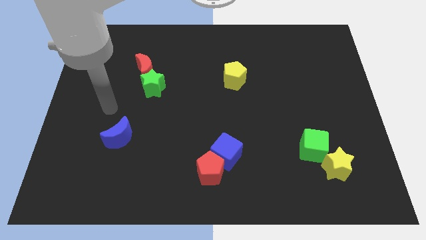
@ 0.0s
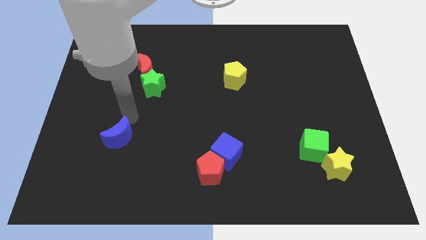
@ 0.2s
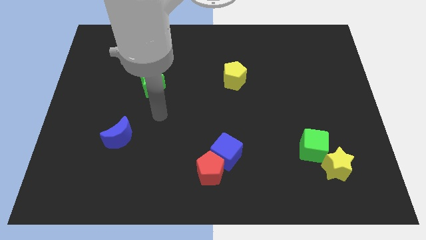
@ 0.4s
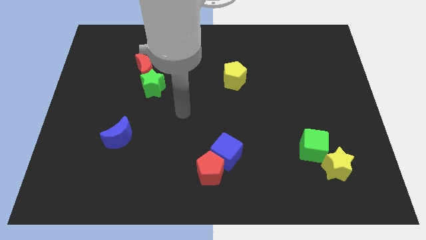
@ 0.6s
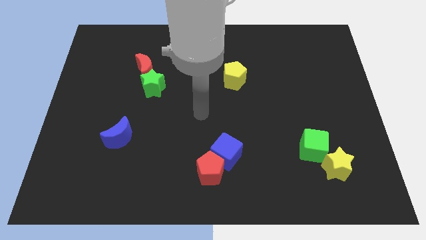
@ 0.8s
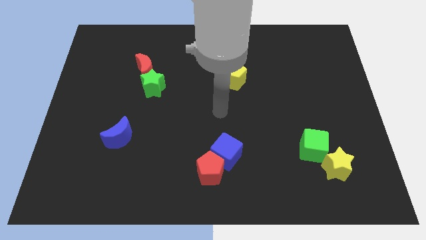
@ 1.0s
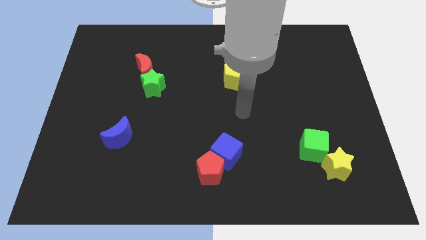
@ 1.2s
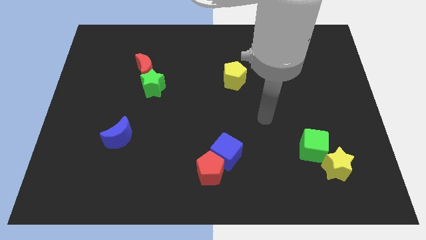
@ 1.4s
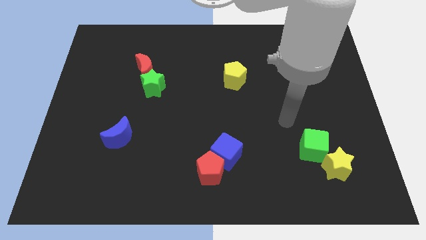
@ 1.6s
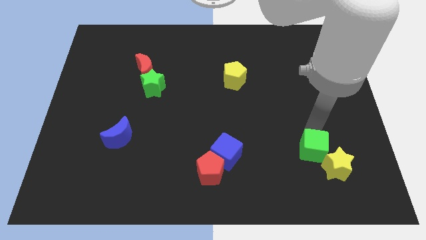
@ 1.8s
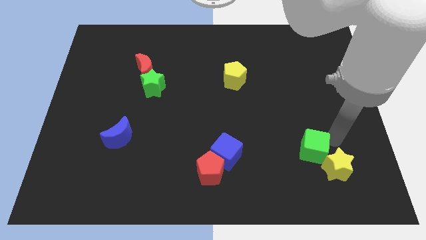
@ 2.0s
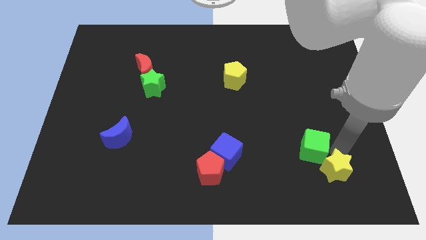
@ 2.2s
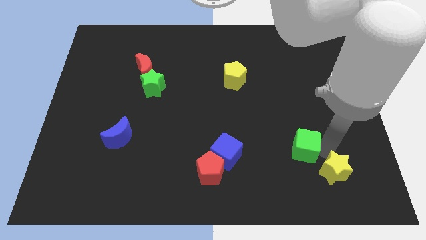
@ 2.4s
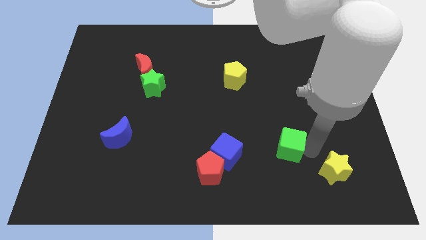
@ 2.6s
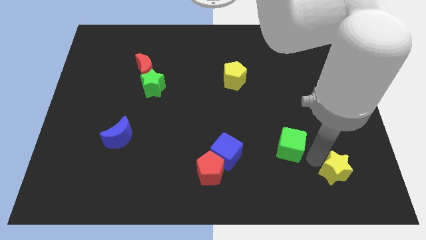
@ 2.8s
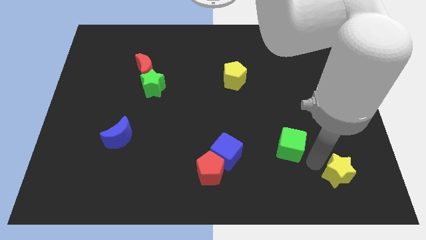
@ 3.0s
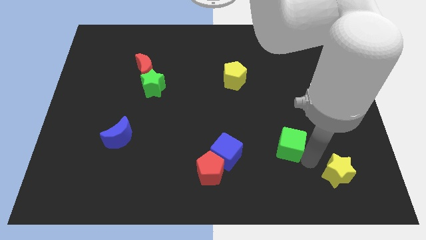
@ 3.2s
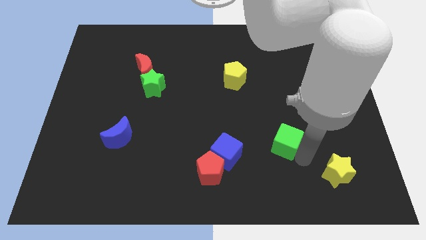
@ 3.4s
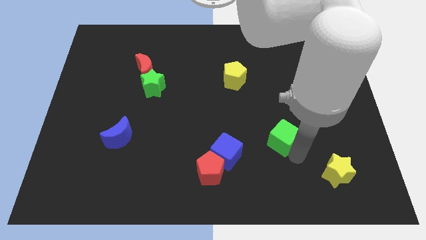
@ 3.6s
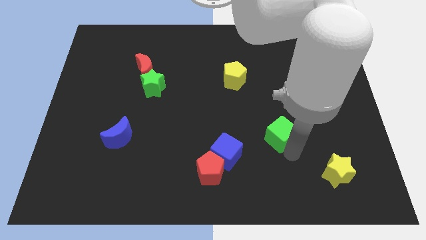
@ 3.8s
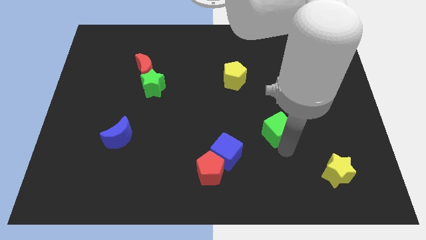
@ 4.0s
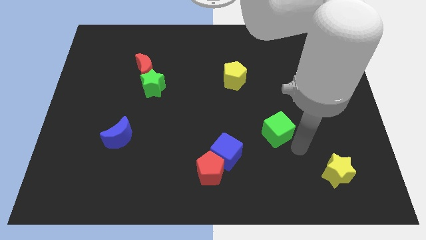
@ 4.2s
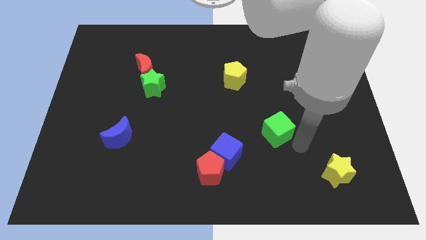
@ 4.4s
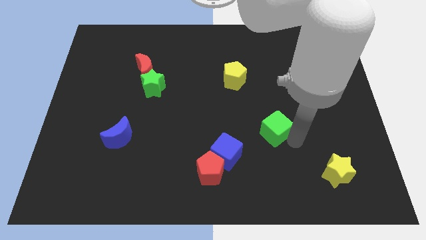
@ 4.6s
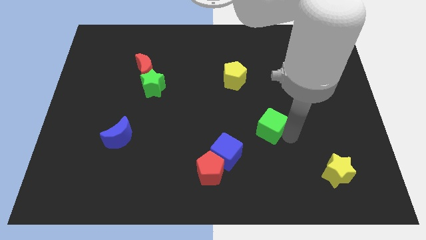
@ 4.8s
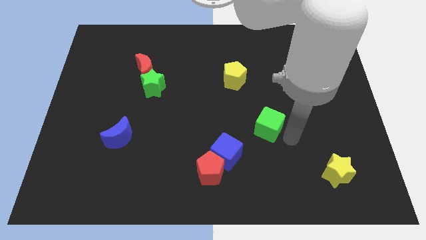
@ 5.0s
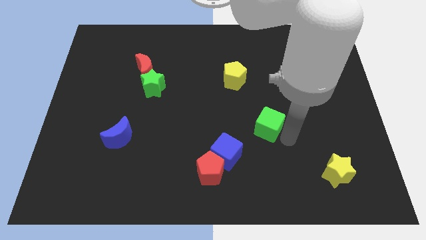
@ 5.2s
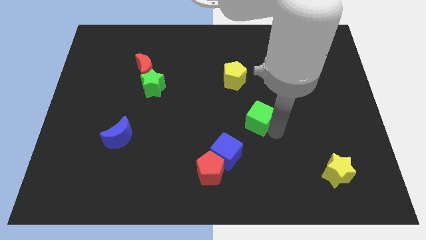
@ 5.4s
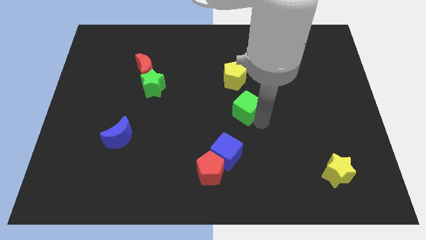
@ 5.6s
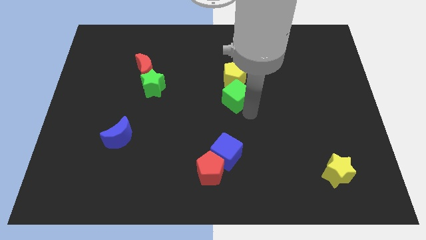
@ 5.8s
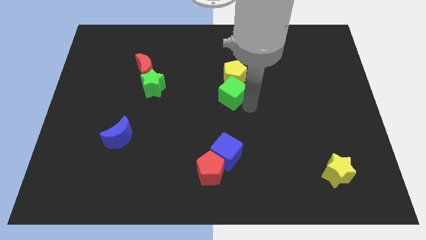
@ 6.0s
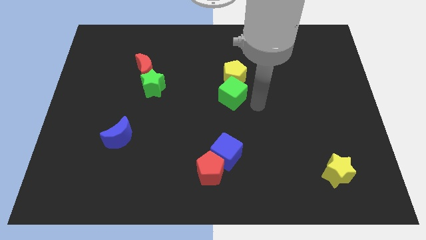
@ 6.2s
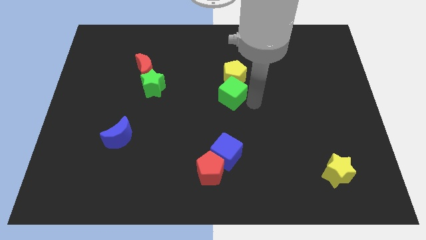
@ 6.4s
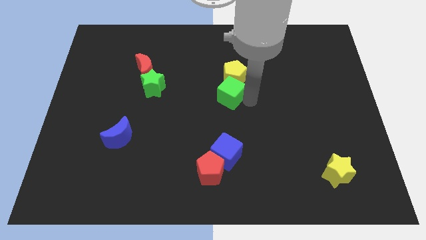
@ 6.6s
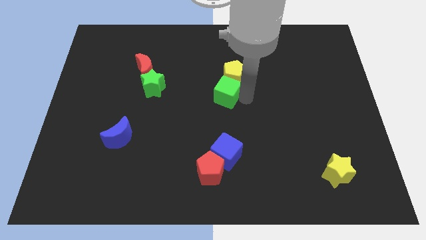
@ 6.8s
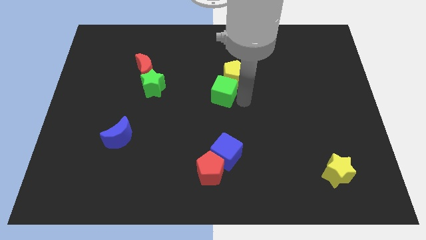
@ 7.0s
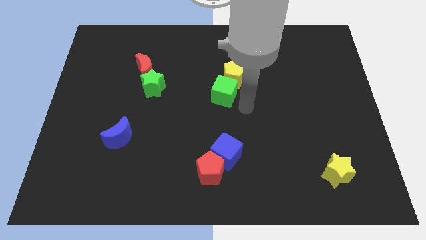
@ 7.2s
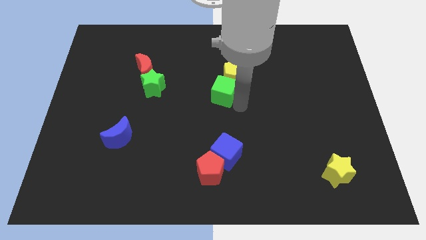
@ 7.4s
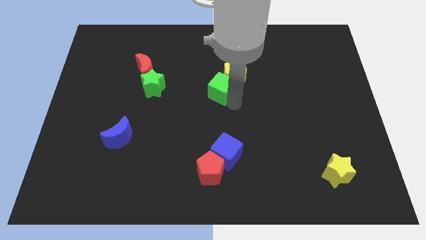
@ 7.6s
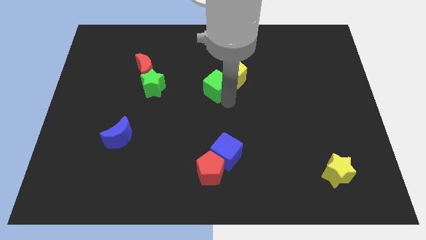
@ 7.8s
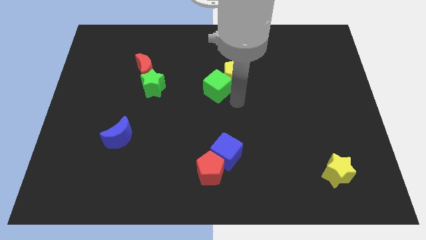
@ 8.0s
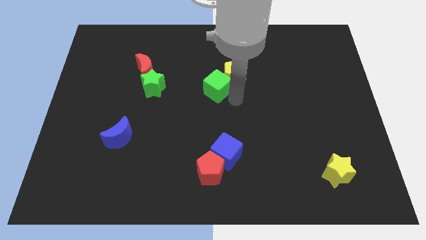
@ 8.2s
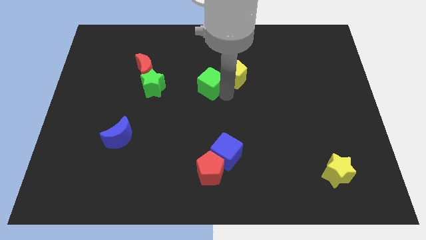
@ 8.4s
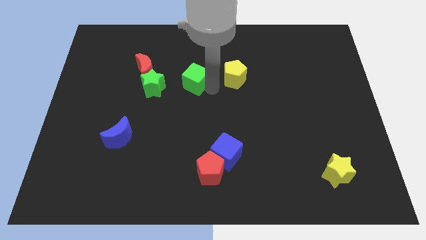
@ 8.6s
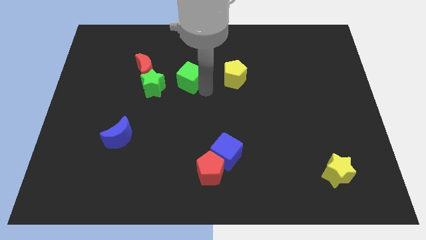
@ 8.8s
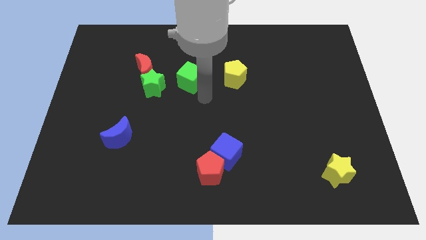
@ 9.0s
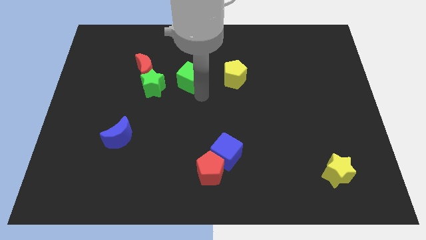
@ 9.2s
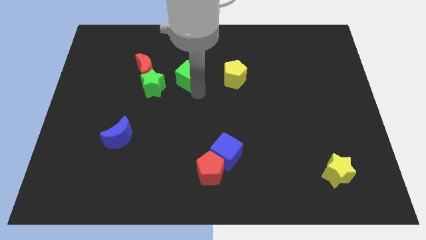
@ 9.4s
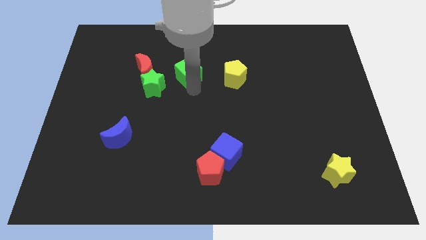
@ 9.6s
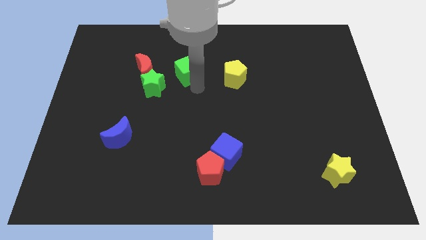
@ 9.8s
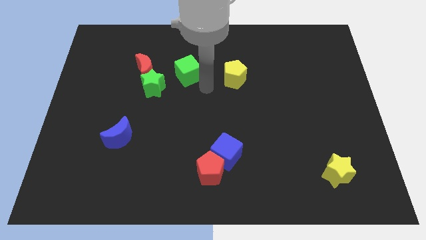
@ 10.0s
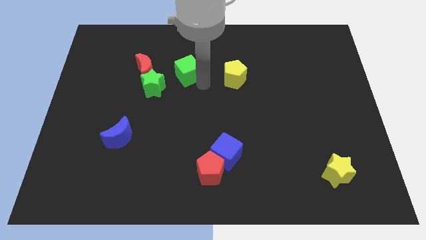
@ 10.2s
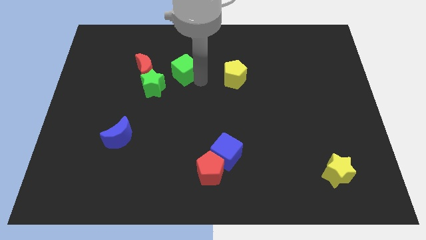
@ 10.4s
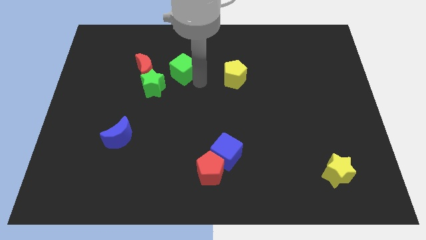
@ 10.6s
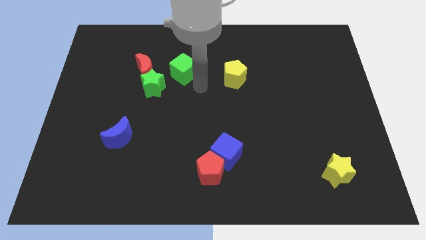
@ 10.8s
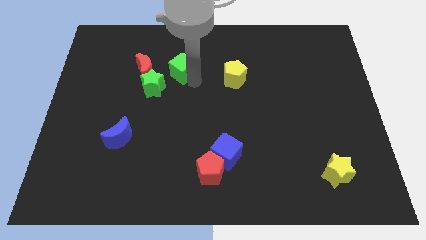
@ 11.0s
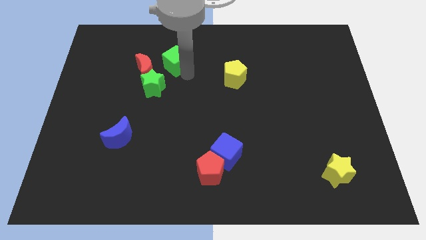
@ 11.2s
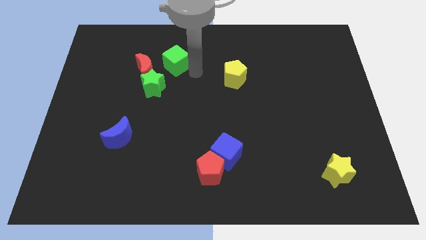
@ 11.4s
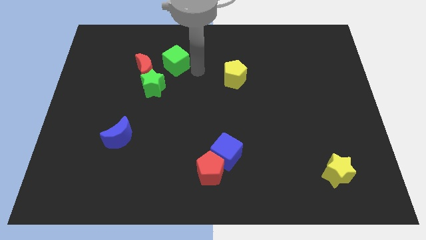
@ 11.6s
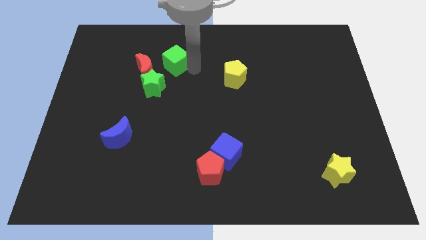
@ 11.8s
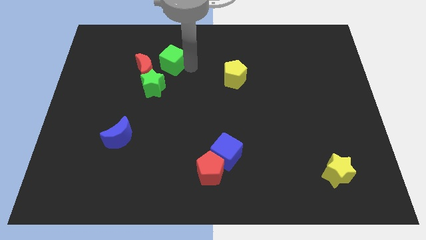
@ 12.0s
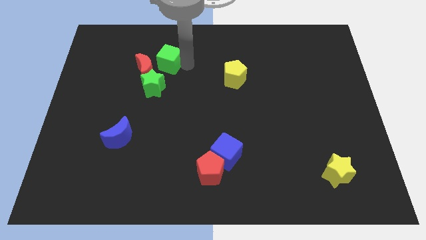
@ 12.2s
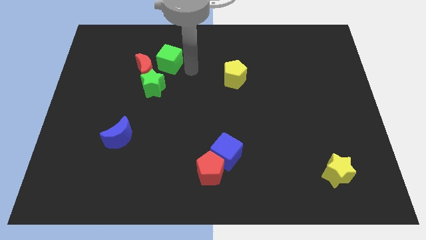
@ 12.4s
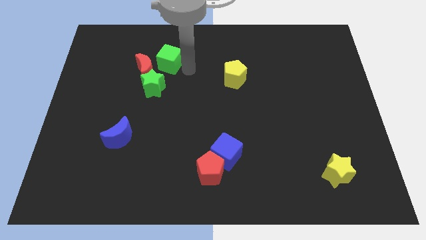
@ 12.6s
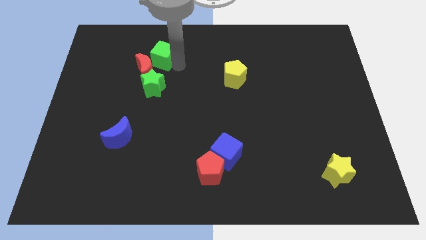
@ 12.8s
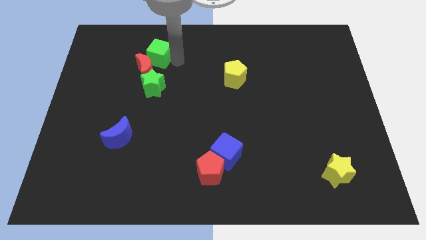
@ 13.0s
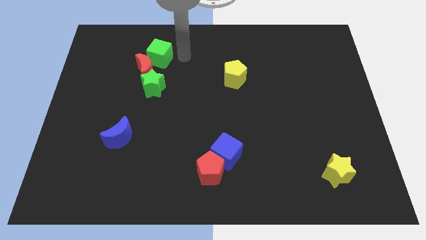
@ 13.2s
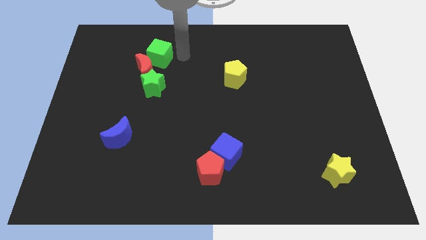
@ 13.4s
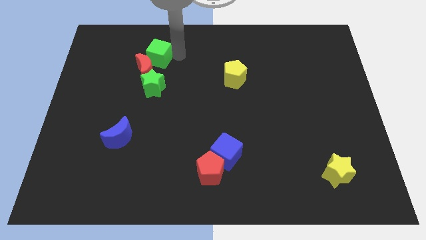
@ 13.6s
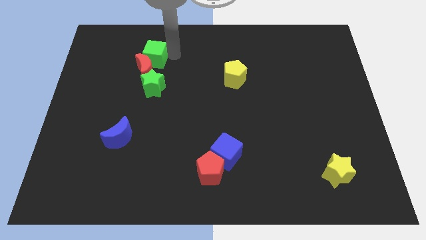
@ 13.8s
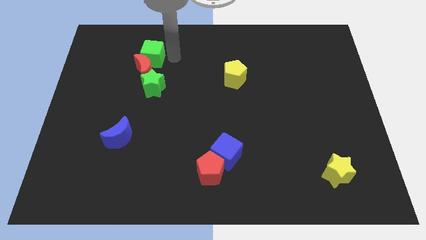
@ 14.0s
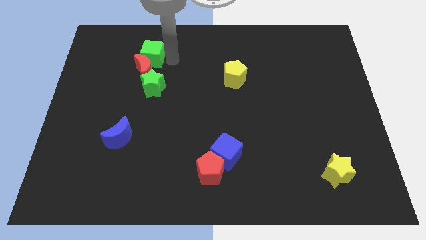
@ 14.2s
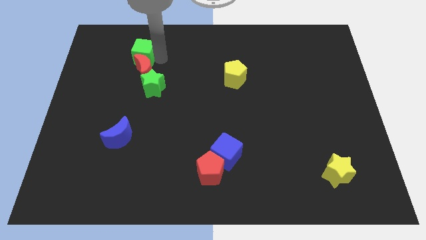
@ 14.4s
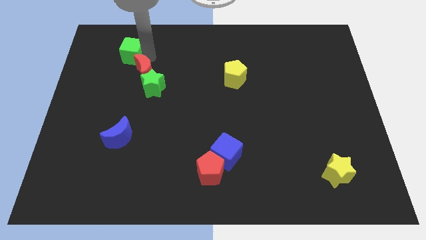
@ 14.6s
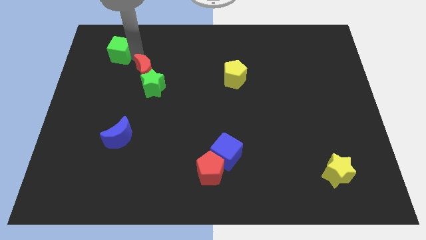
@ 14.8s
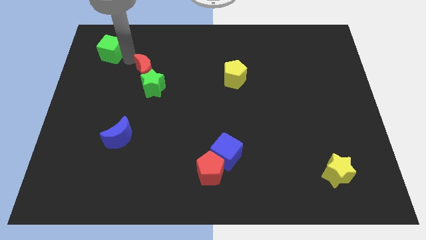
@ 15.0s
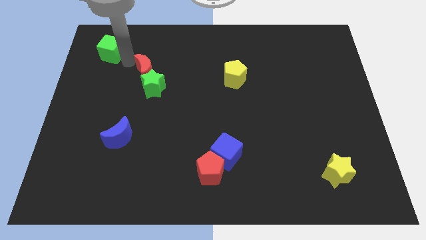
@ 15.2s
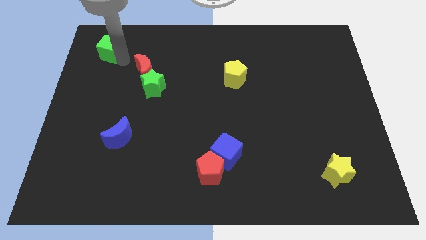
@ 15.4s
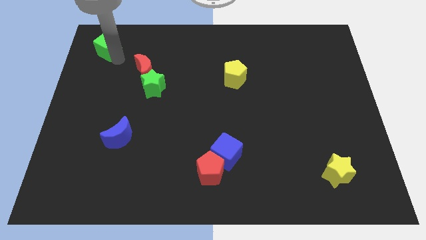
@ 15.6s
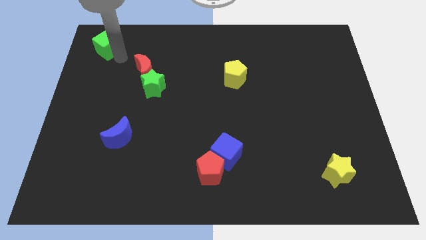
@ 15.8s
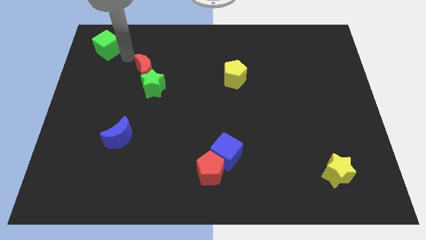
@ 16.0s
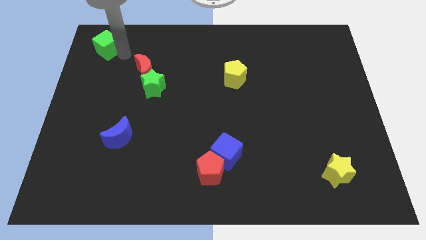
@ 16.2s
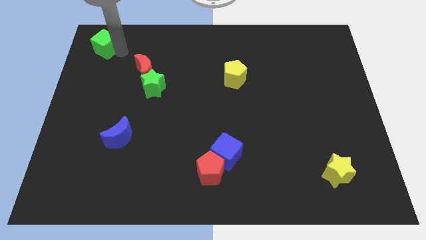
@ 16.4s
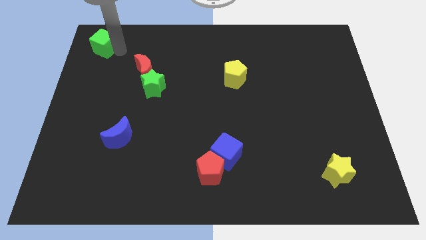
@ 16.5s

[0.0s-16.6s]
push the green cube to the top left of the board
